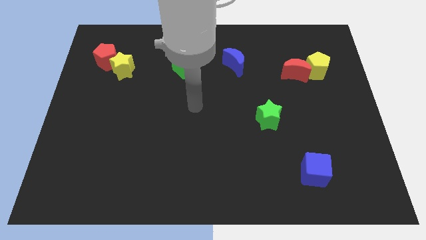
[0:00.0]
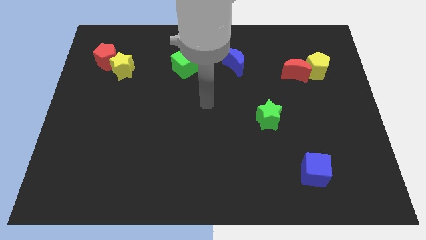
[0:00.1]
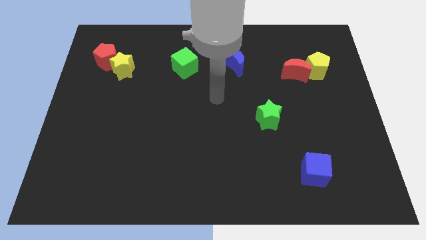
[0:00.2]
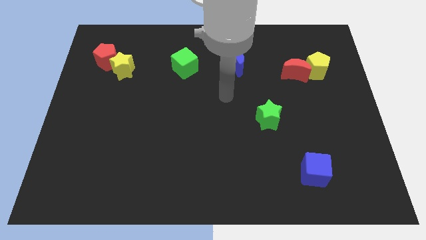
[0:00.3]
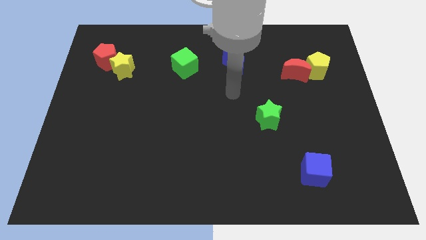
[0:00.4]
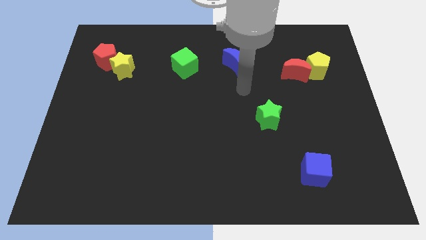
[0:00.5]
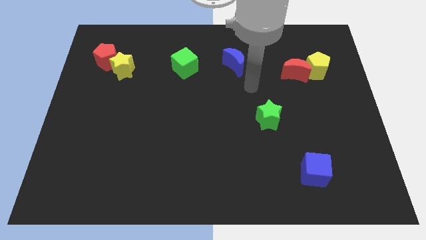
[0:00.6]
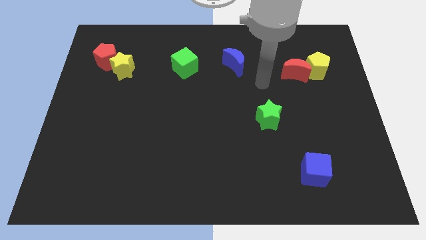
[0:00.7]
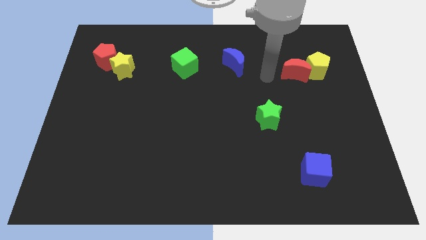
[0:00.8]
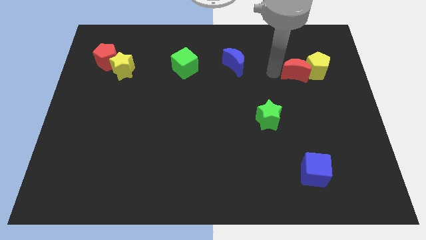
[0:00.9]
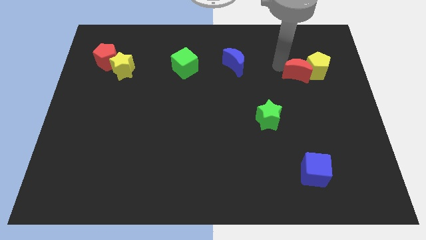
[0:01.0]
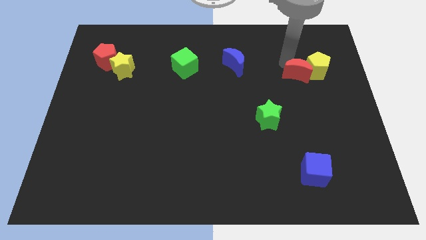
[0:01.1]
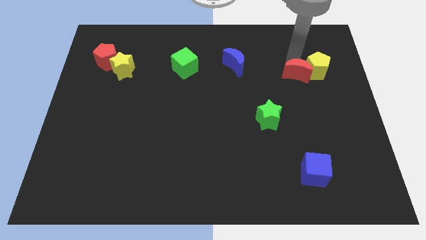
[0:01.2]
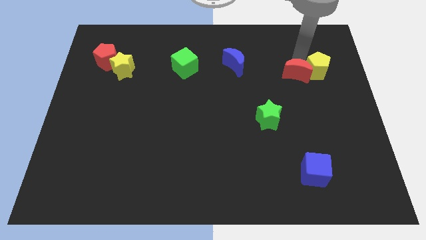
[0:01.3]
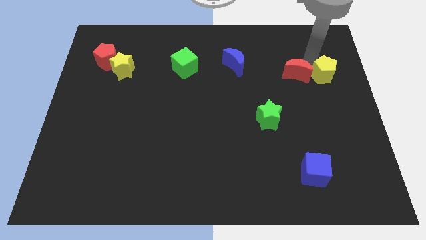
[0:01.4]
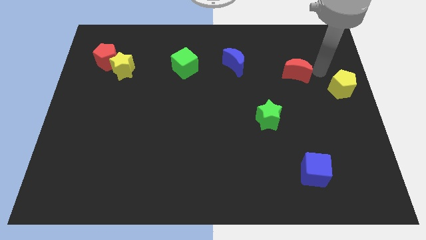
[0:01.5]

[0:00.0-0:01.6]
pull the red moon apart from the yellow pentagon

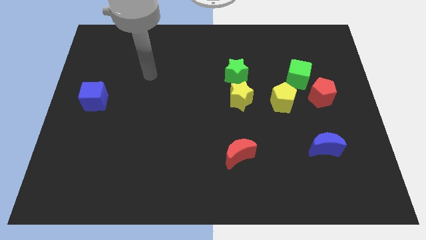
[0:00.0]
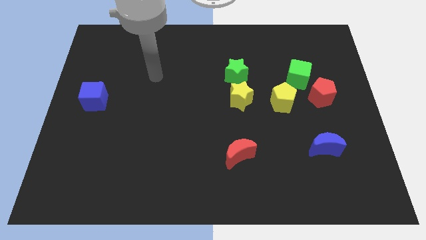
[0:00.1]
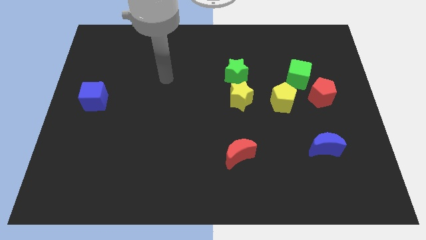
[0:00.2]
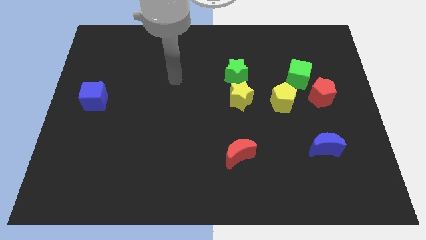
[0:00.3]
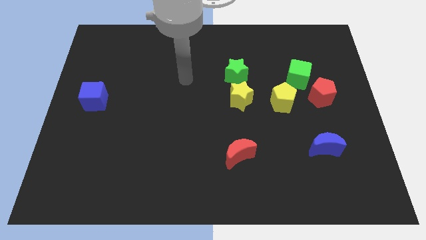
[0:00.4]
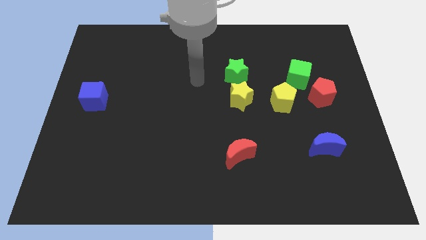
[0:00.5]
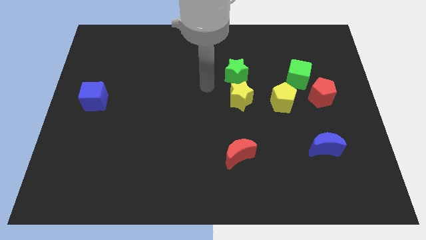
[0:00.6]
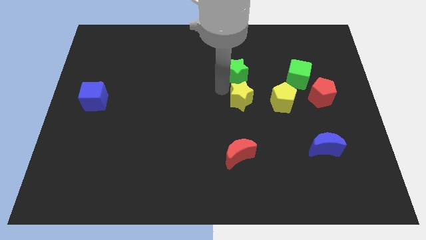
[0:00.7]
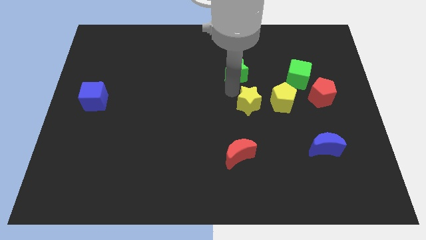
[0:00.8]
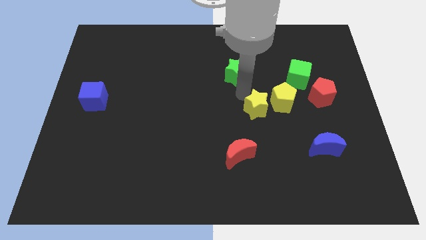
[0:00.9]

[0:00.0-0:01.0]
move the green star away from the yellow star

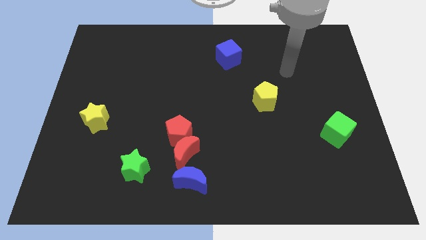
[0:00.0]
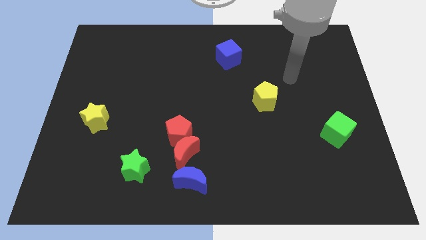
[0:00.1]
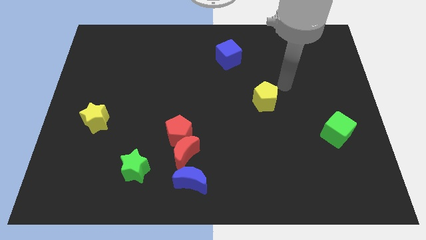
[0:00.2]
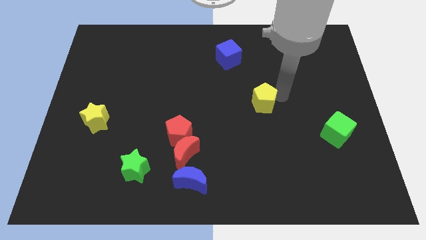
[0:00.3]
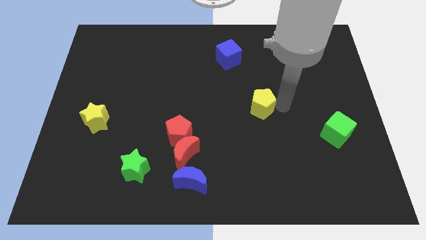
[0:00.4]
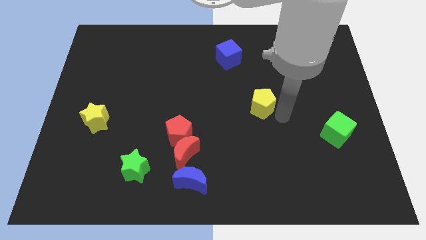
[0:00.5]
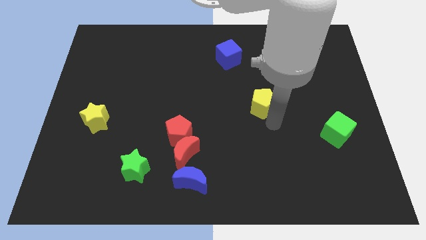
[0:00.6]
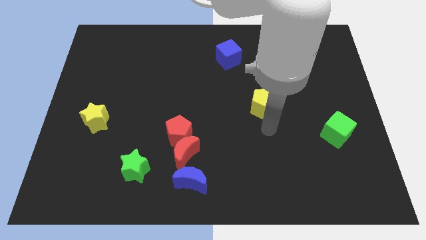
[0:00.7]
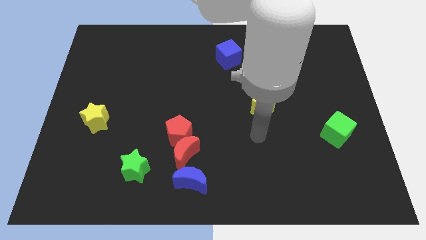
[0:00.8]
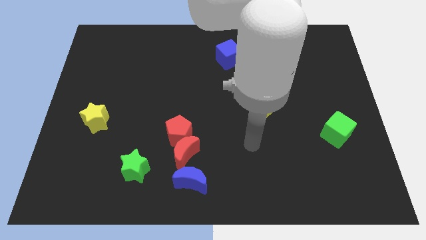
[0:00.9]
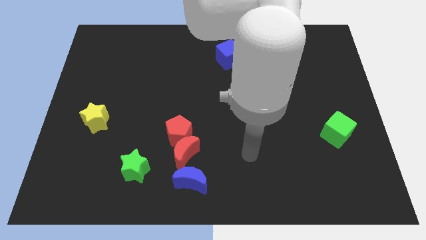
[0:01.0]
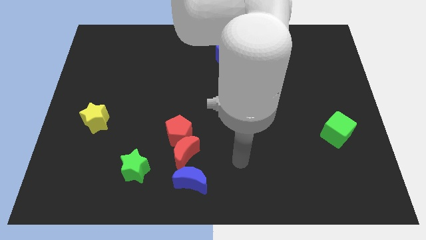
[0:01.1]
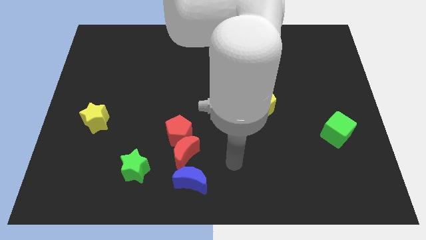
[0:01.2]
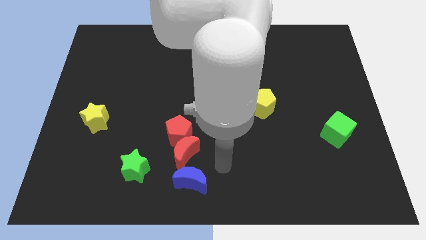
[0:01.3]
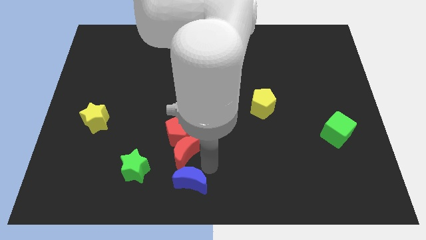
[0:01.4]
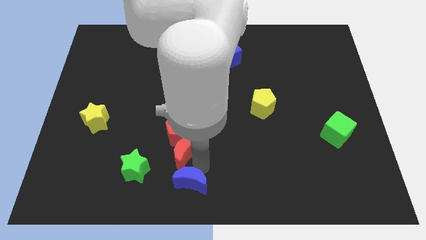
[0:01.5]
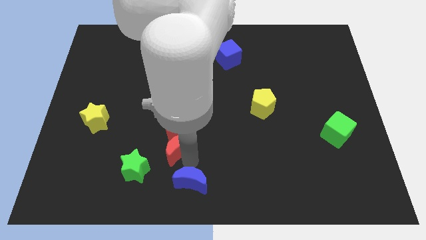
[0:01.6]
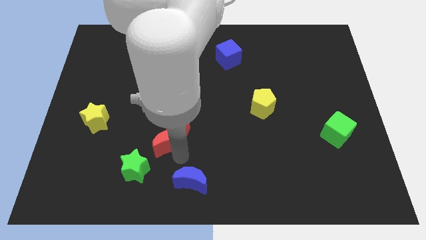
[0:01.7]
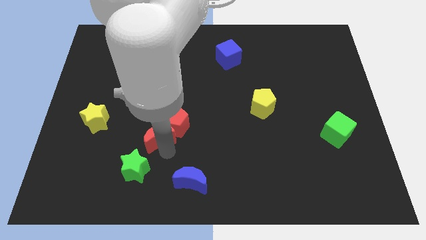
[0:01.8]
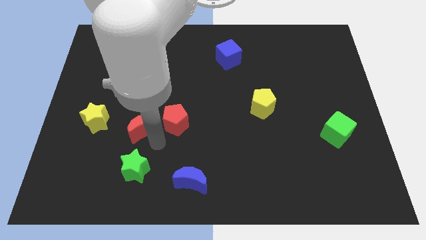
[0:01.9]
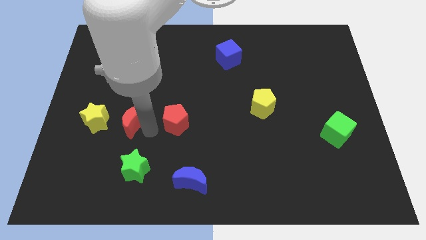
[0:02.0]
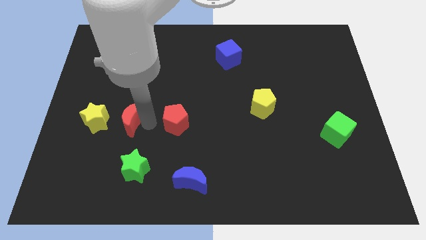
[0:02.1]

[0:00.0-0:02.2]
pull the red pentagon apart from the red moon

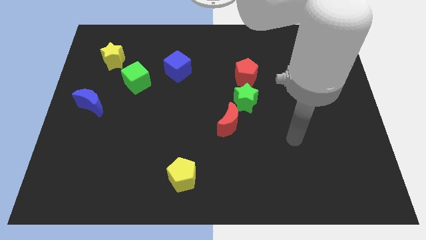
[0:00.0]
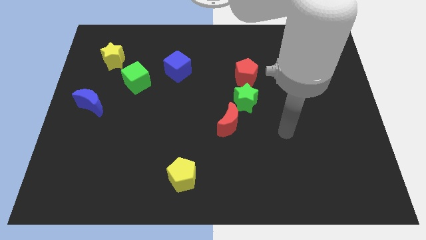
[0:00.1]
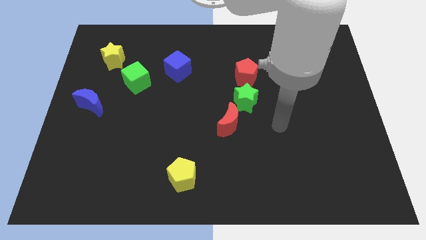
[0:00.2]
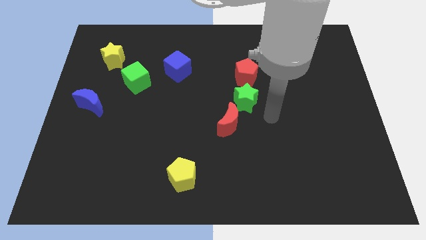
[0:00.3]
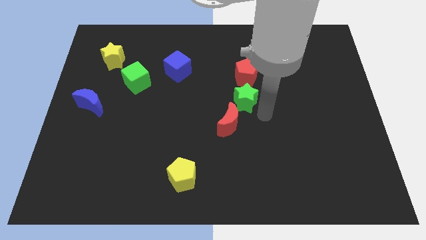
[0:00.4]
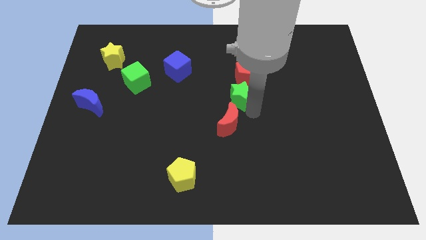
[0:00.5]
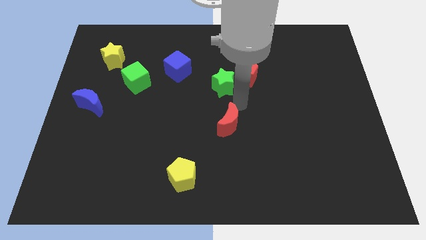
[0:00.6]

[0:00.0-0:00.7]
move the red moon away from the green star

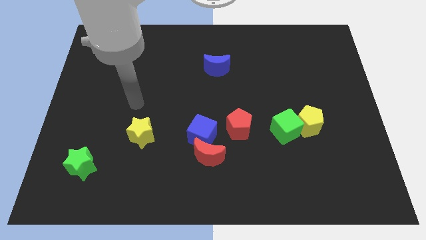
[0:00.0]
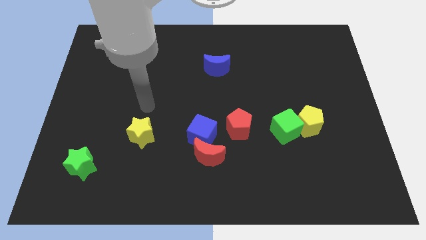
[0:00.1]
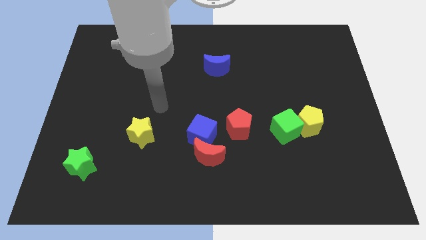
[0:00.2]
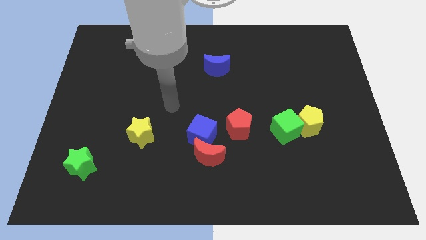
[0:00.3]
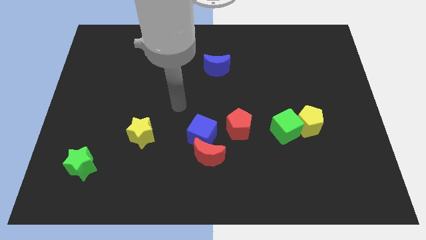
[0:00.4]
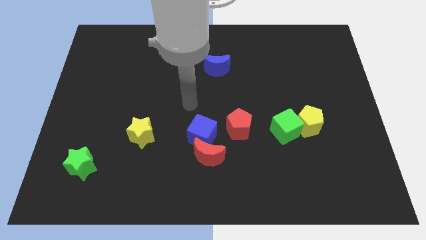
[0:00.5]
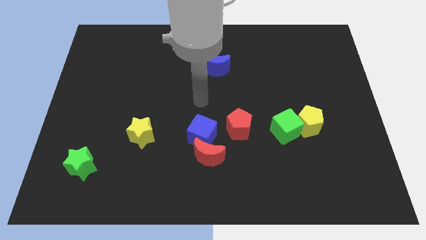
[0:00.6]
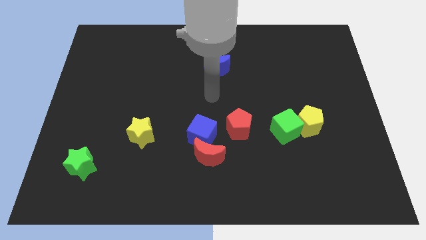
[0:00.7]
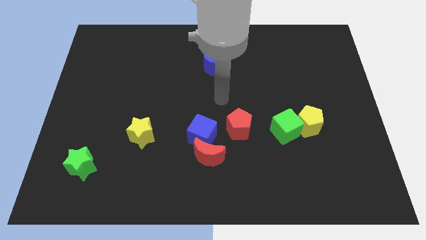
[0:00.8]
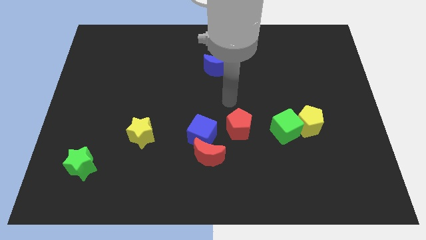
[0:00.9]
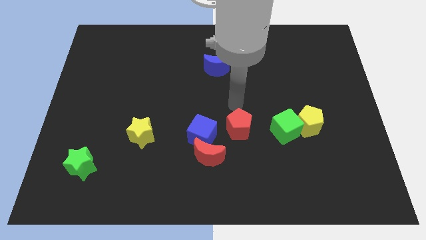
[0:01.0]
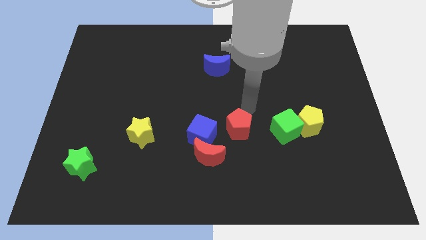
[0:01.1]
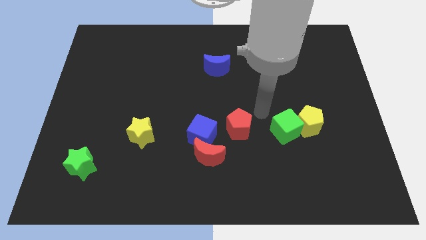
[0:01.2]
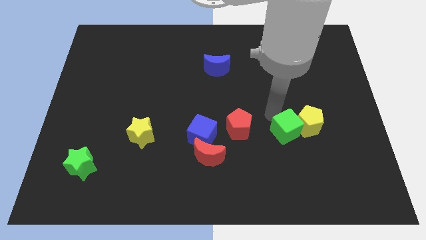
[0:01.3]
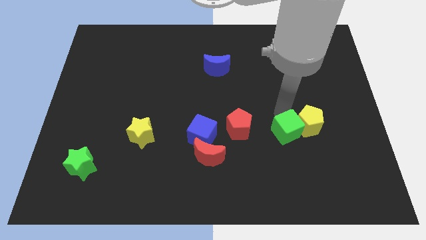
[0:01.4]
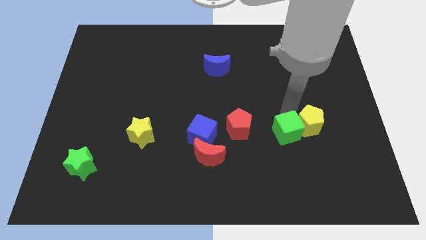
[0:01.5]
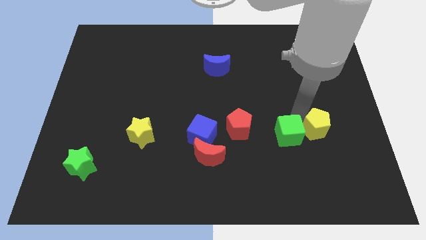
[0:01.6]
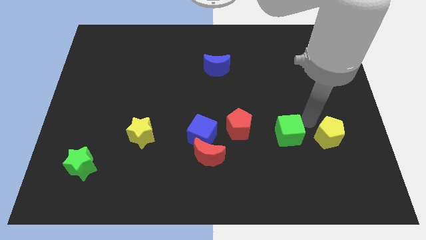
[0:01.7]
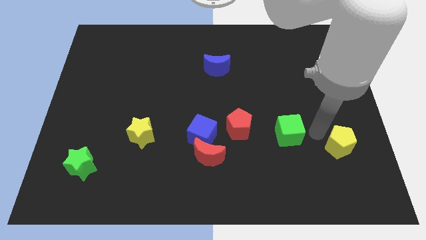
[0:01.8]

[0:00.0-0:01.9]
pull the green cube apart from the yellow pentagon

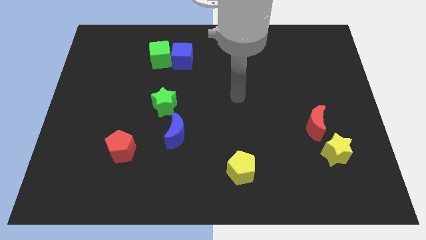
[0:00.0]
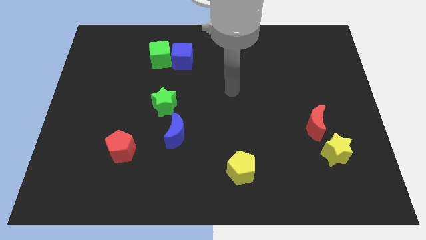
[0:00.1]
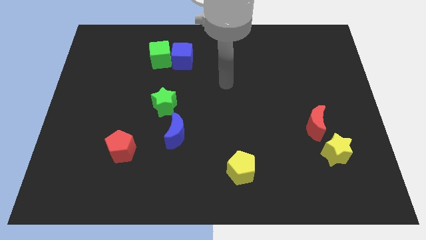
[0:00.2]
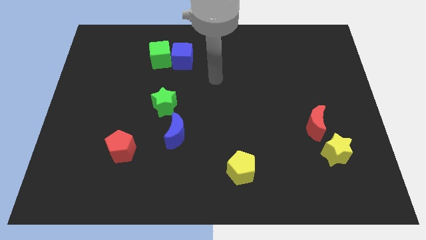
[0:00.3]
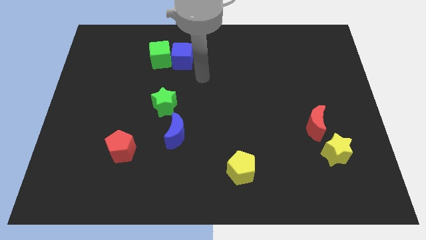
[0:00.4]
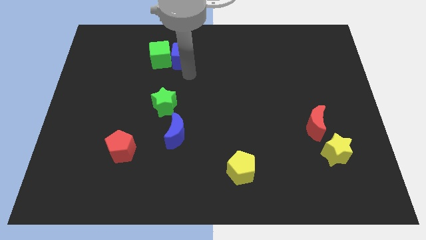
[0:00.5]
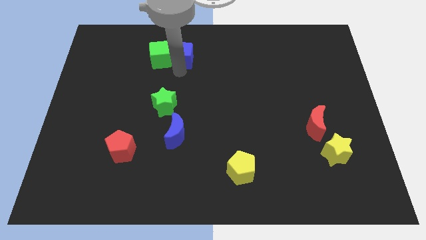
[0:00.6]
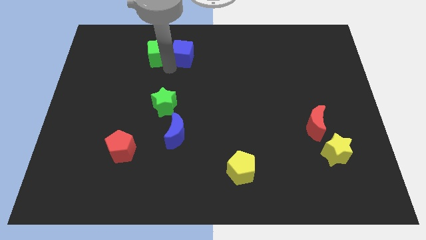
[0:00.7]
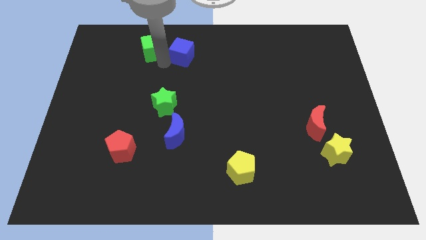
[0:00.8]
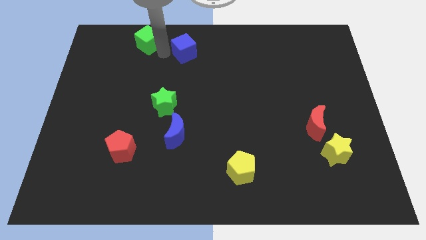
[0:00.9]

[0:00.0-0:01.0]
separate the blue cube from the green cube

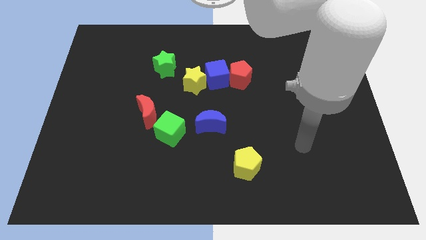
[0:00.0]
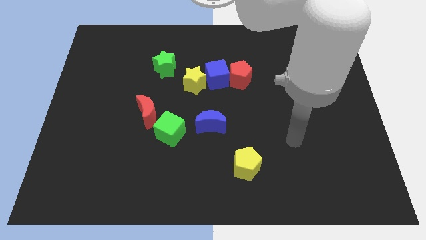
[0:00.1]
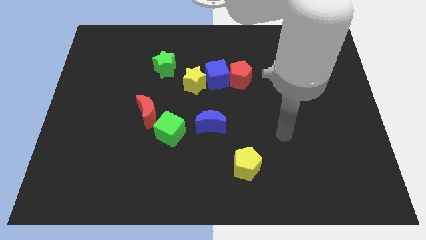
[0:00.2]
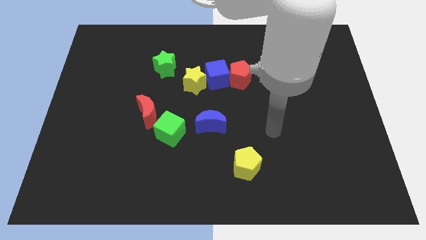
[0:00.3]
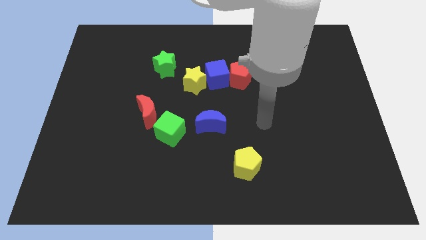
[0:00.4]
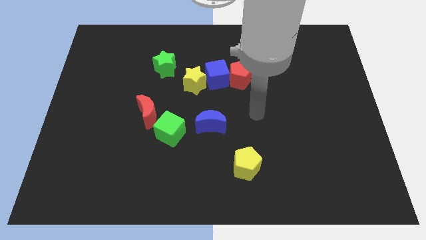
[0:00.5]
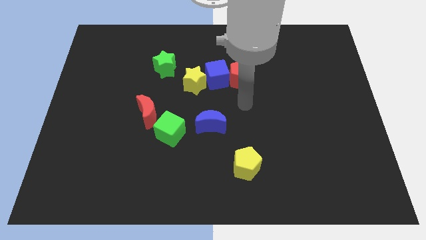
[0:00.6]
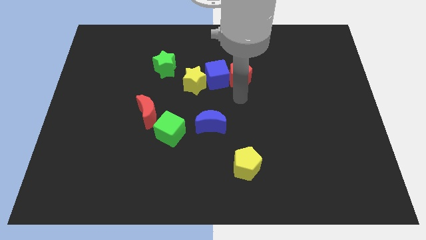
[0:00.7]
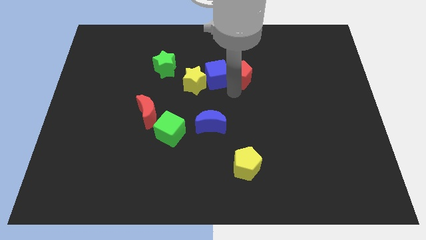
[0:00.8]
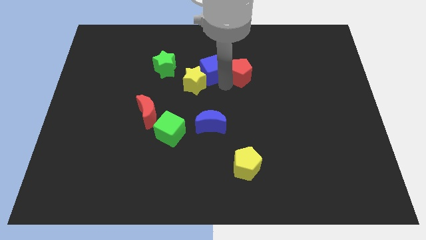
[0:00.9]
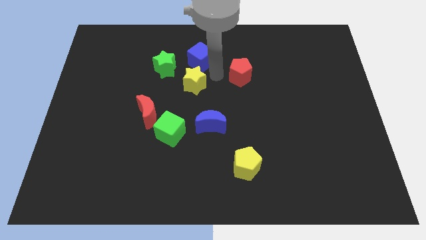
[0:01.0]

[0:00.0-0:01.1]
separate the red pentagon from the blue cube
